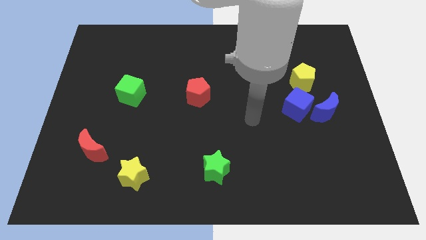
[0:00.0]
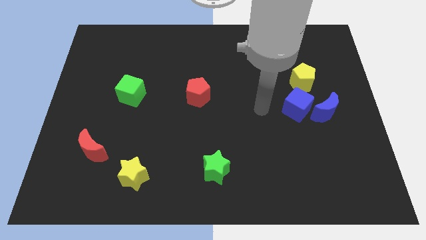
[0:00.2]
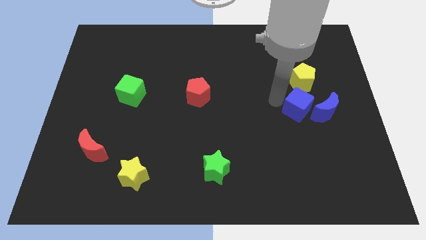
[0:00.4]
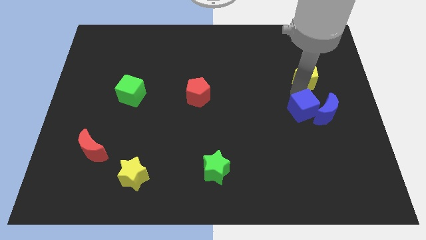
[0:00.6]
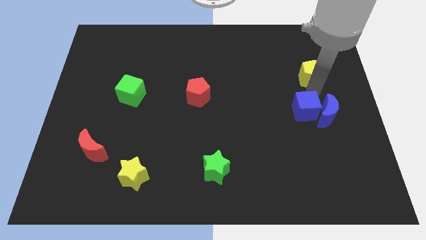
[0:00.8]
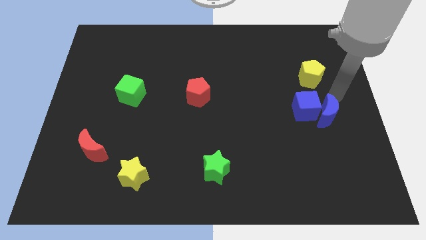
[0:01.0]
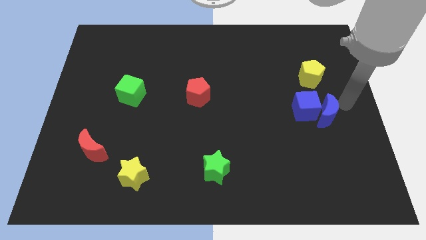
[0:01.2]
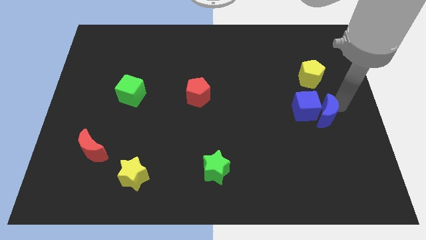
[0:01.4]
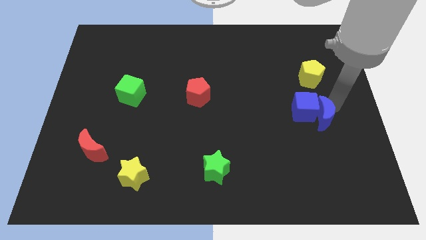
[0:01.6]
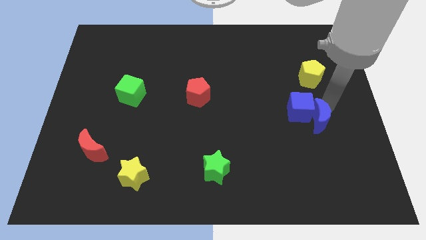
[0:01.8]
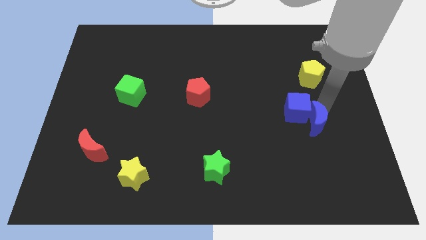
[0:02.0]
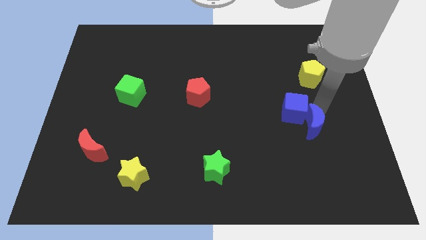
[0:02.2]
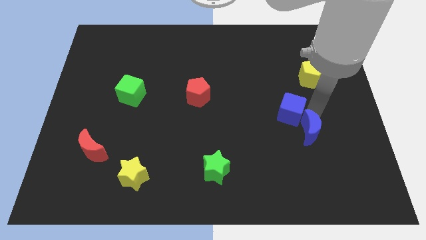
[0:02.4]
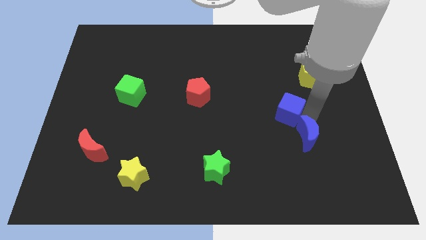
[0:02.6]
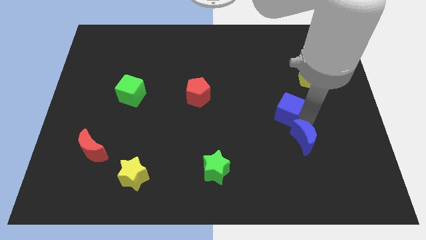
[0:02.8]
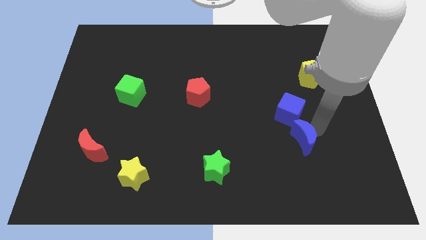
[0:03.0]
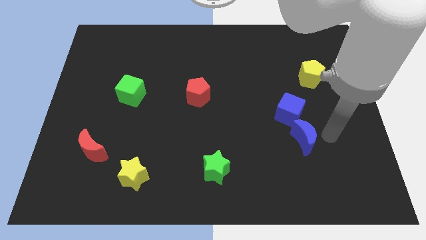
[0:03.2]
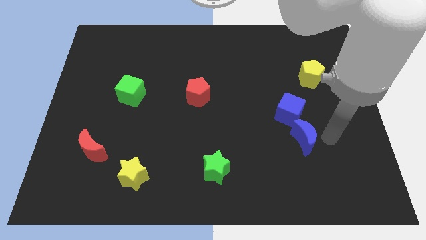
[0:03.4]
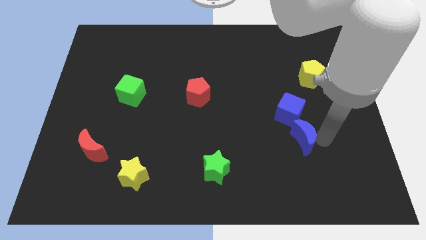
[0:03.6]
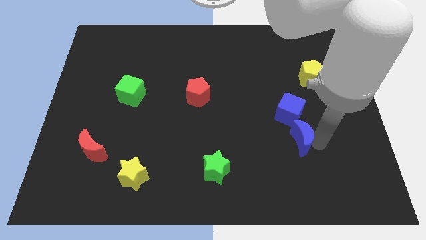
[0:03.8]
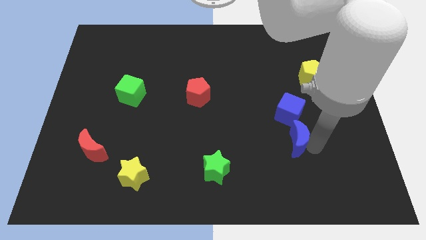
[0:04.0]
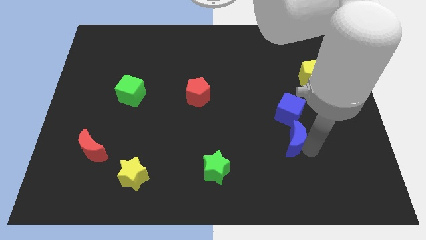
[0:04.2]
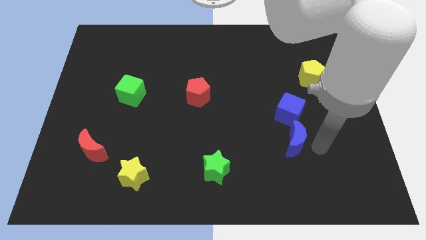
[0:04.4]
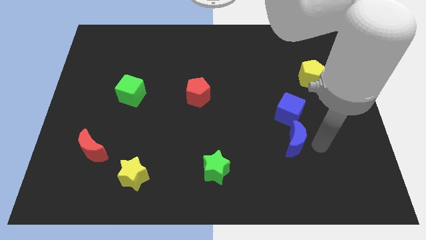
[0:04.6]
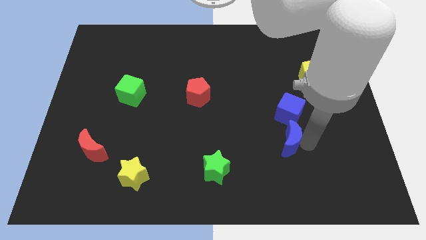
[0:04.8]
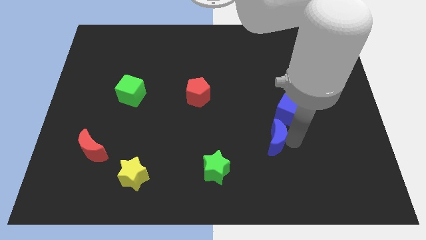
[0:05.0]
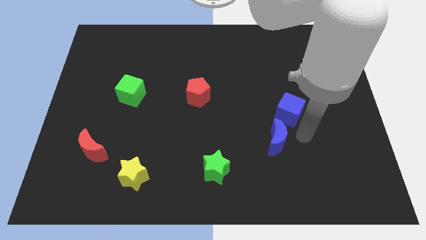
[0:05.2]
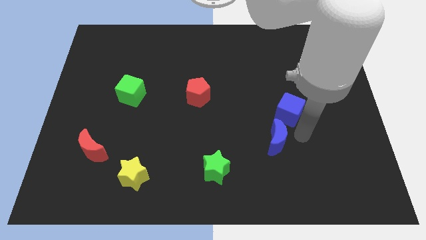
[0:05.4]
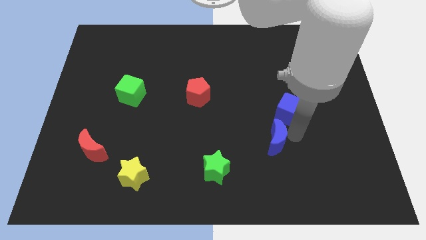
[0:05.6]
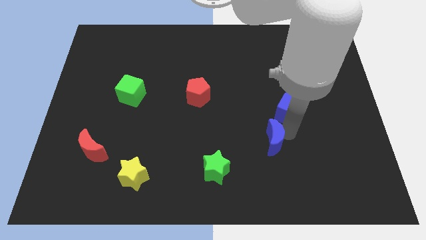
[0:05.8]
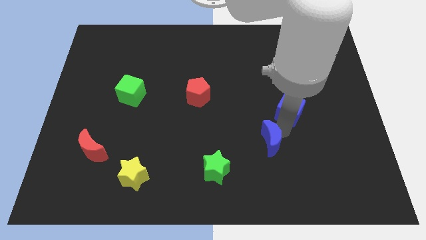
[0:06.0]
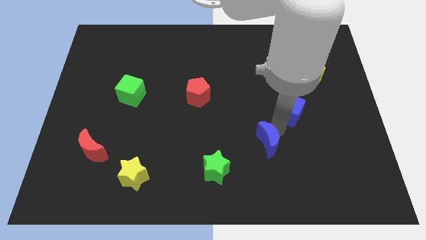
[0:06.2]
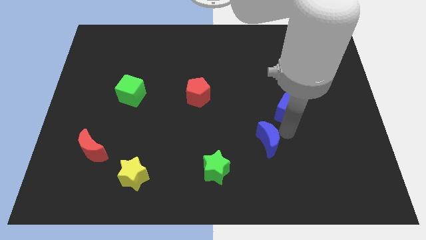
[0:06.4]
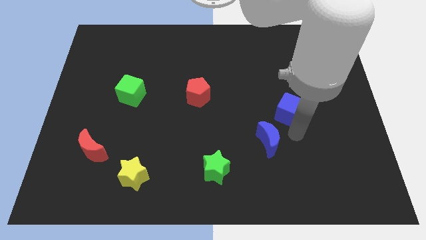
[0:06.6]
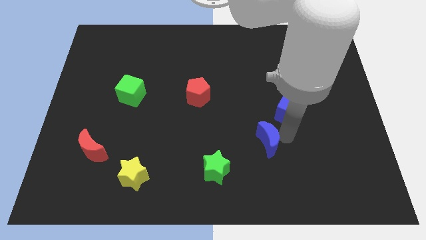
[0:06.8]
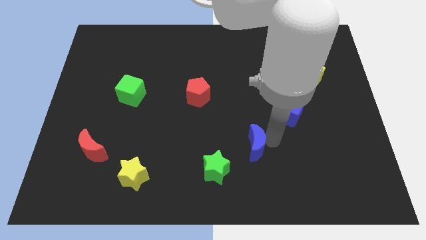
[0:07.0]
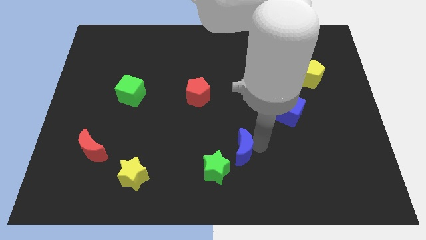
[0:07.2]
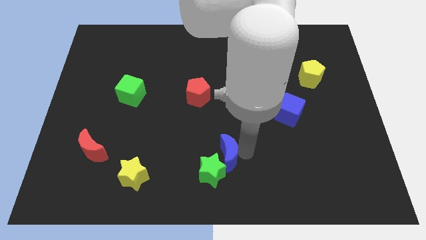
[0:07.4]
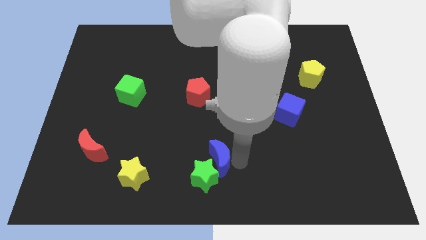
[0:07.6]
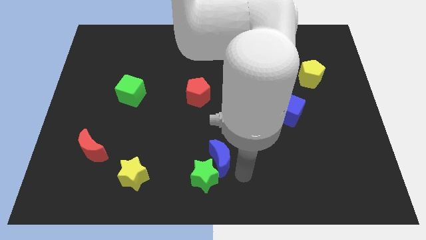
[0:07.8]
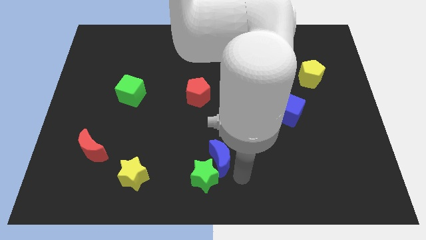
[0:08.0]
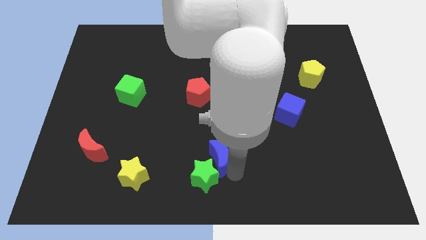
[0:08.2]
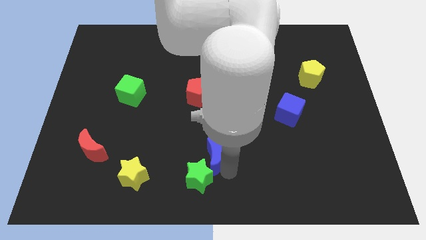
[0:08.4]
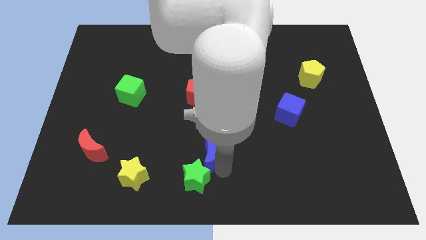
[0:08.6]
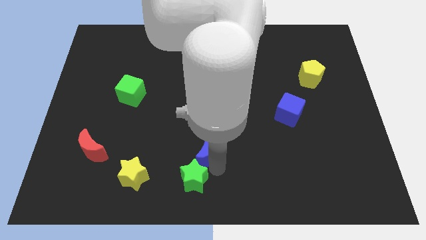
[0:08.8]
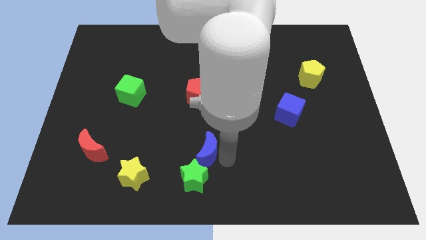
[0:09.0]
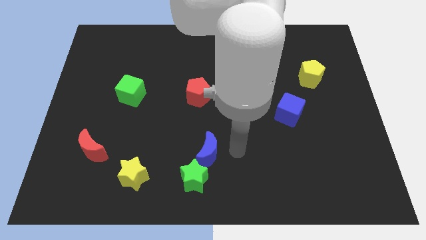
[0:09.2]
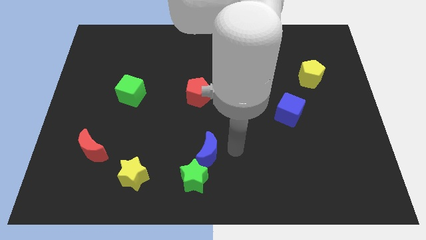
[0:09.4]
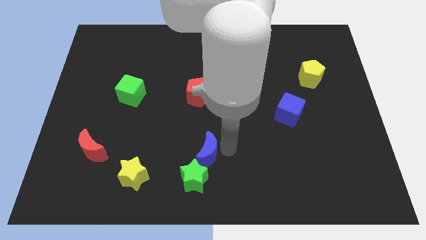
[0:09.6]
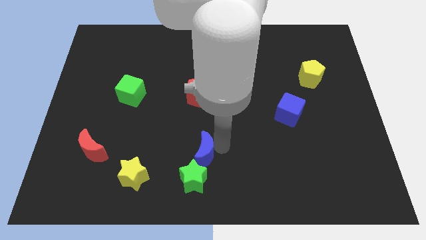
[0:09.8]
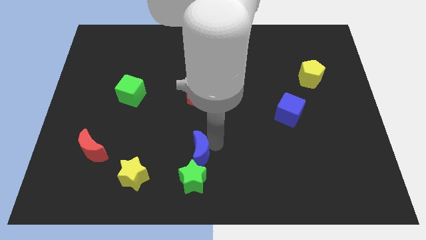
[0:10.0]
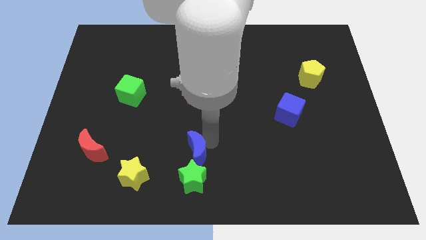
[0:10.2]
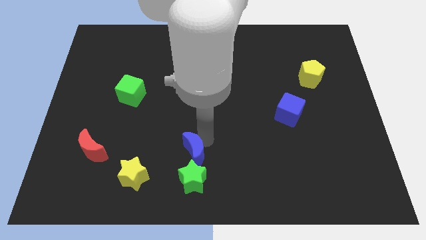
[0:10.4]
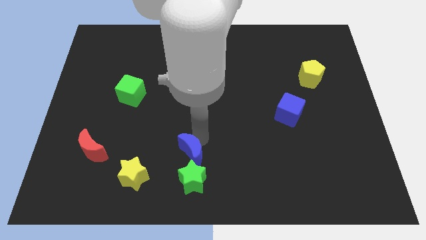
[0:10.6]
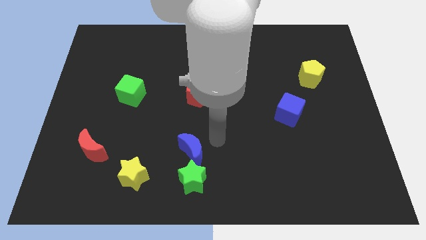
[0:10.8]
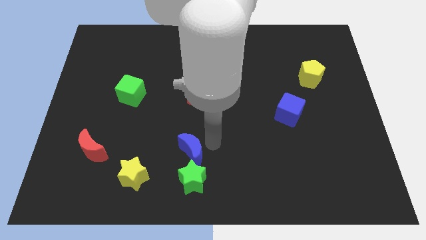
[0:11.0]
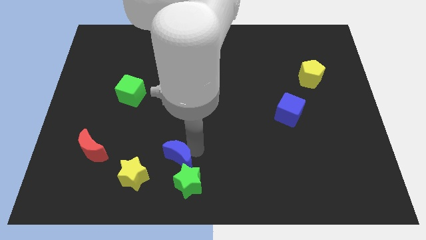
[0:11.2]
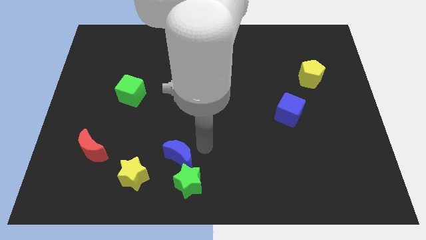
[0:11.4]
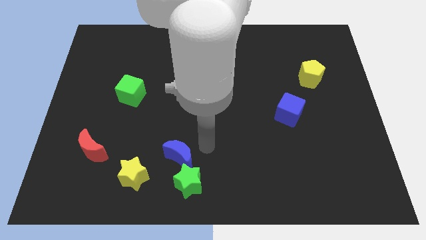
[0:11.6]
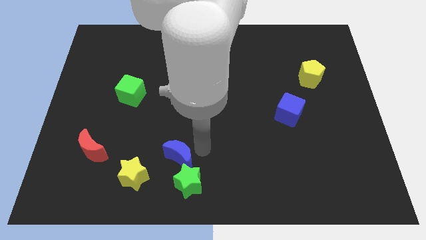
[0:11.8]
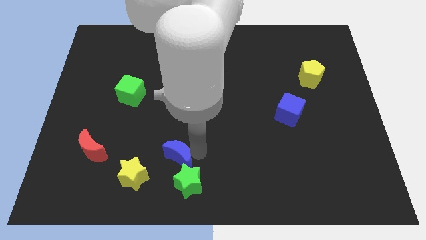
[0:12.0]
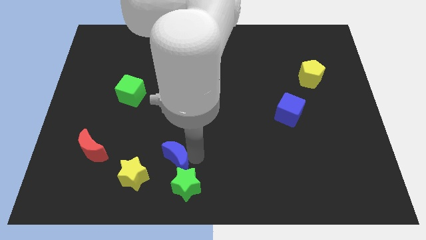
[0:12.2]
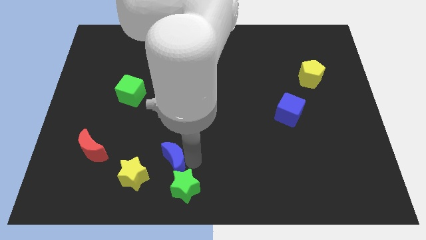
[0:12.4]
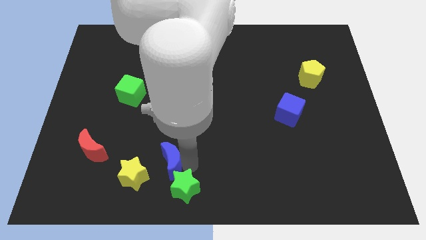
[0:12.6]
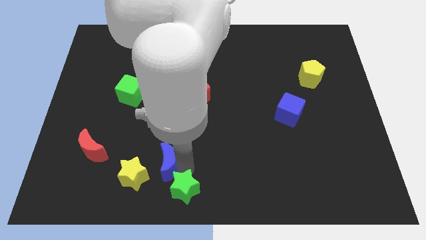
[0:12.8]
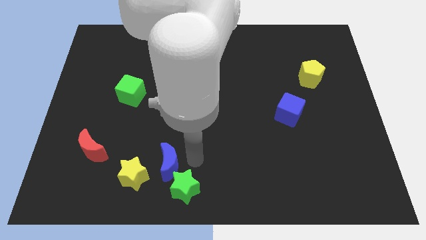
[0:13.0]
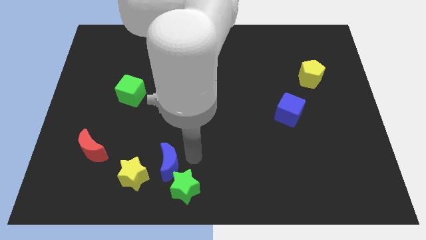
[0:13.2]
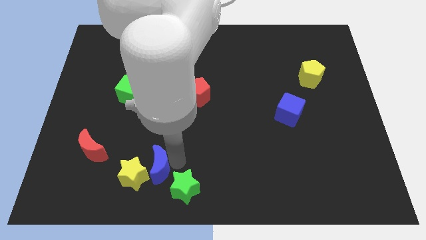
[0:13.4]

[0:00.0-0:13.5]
push the blue moon towards the yellow star

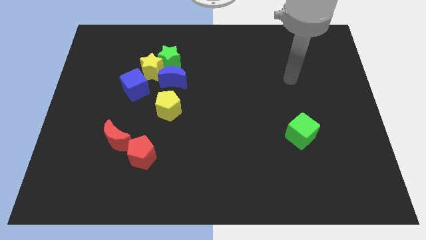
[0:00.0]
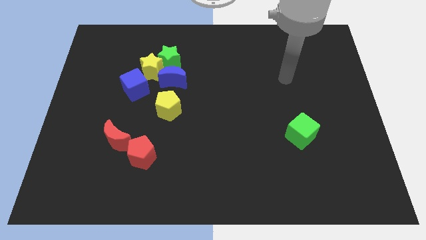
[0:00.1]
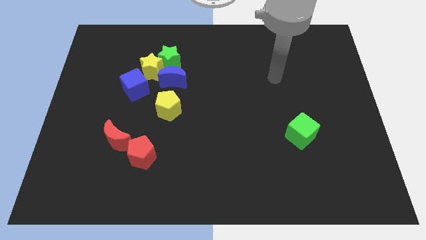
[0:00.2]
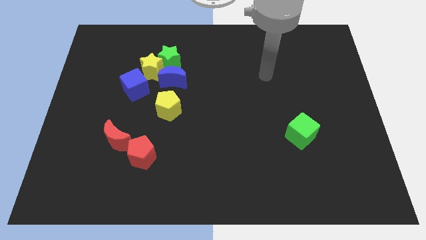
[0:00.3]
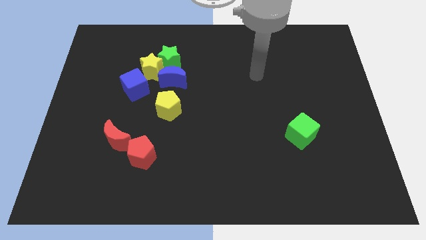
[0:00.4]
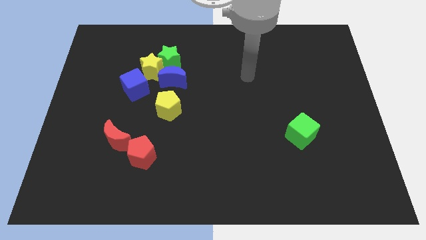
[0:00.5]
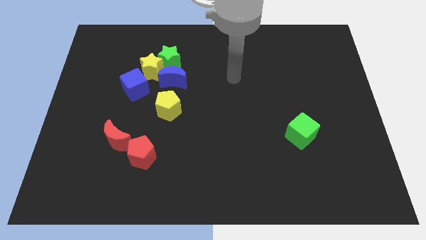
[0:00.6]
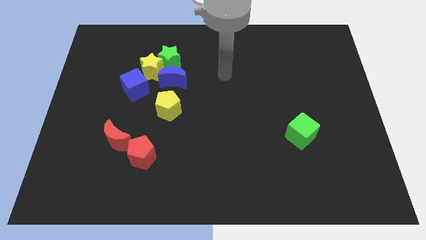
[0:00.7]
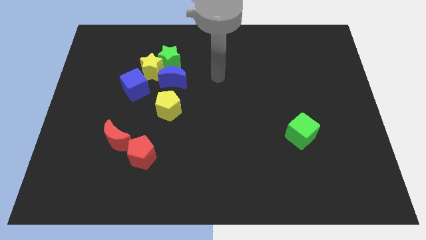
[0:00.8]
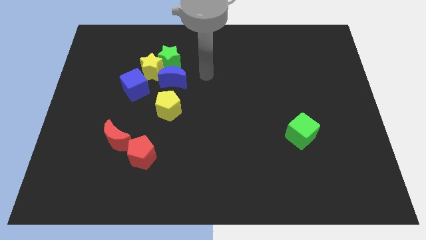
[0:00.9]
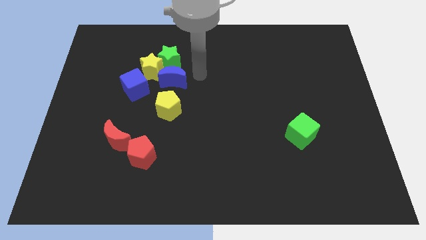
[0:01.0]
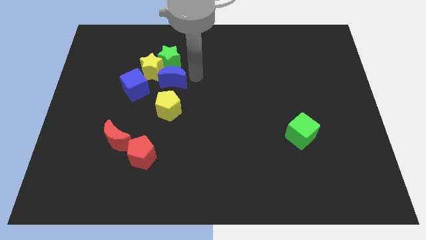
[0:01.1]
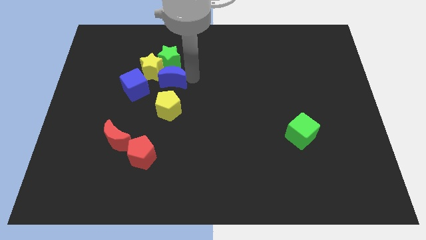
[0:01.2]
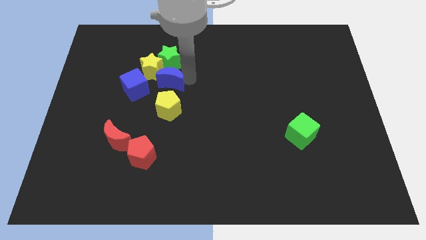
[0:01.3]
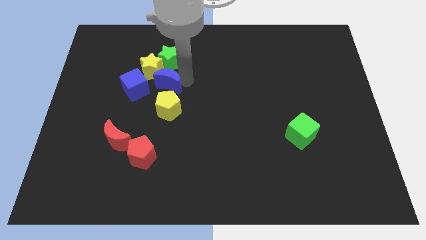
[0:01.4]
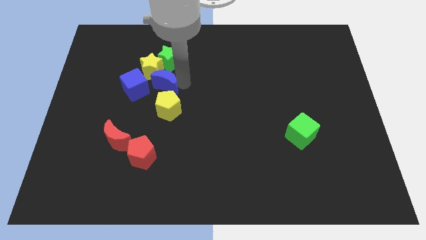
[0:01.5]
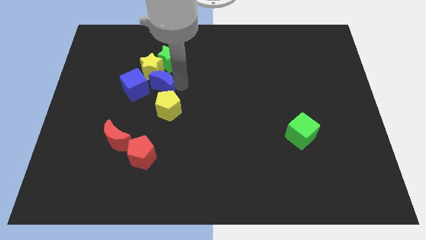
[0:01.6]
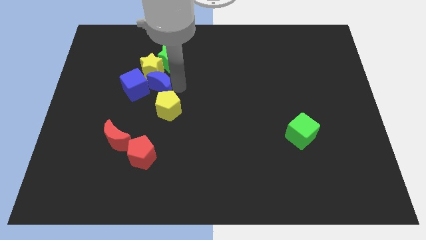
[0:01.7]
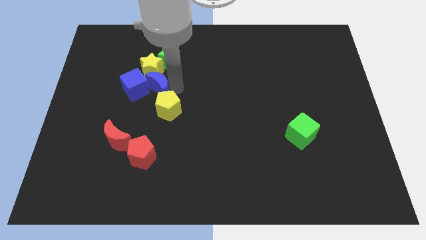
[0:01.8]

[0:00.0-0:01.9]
move the blue moon close to the blue cube
